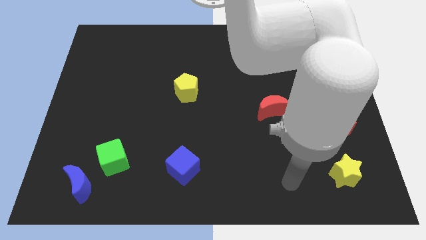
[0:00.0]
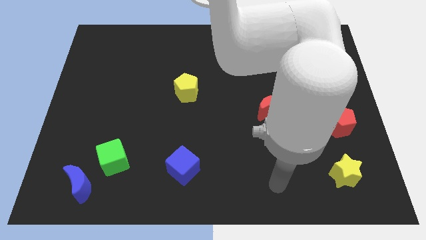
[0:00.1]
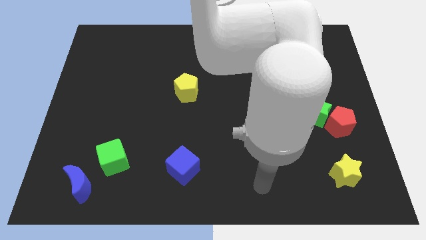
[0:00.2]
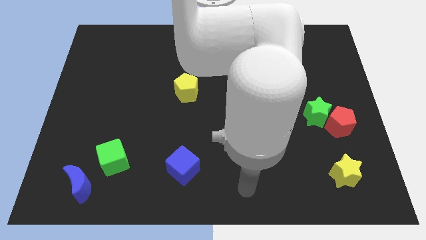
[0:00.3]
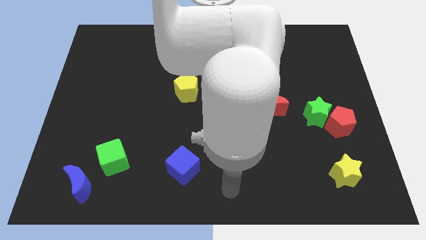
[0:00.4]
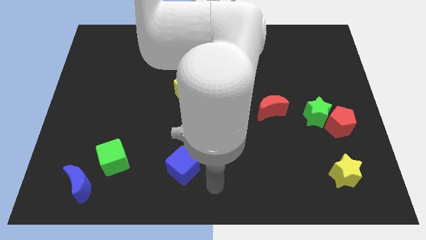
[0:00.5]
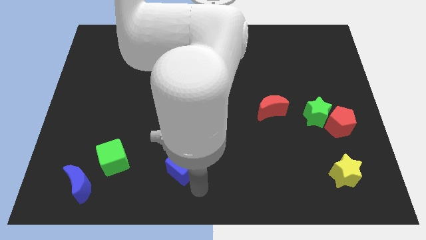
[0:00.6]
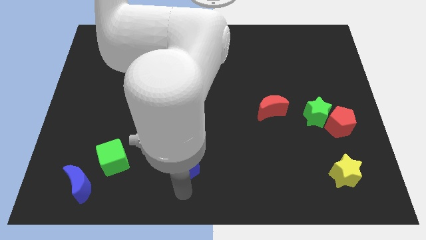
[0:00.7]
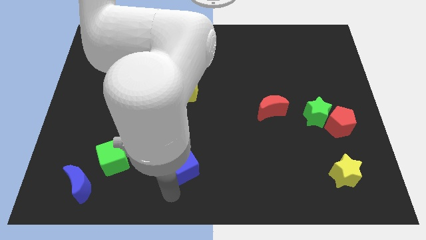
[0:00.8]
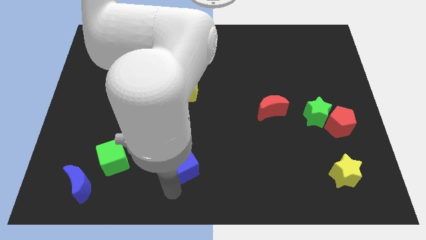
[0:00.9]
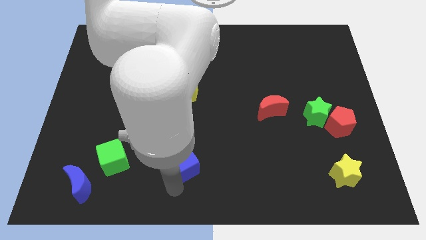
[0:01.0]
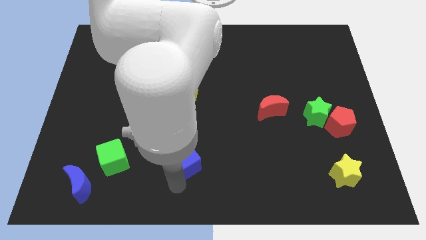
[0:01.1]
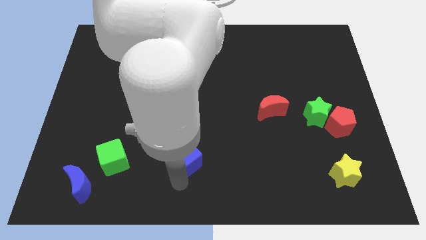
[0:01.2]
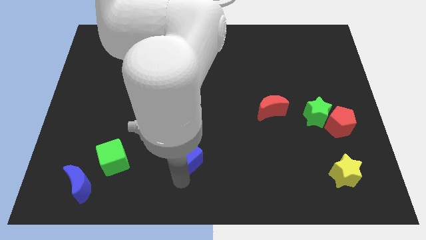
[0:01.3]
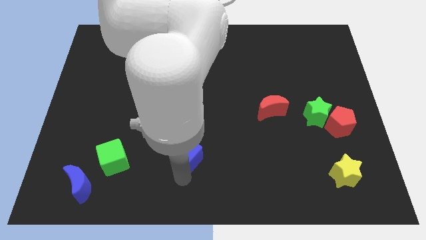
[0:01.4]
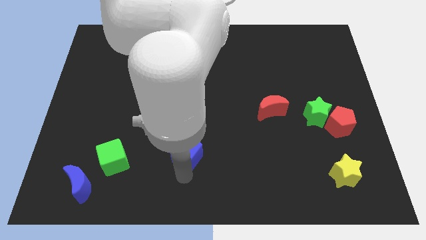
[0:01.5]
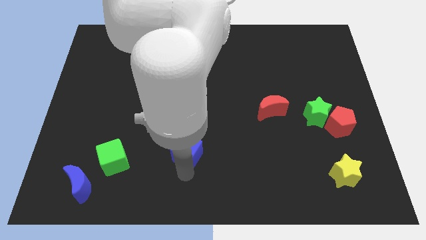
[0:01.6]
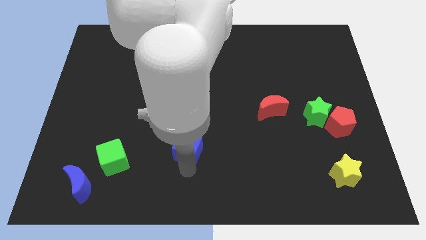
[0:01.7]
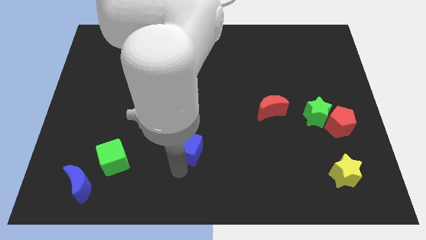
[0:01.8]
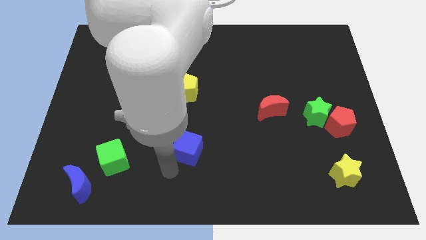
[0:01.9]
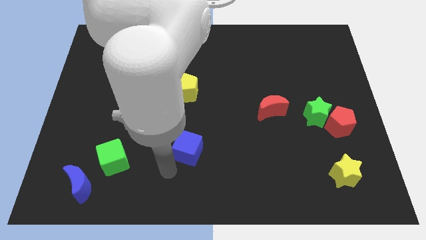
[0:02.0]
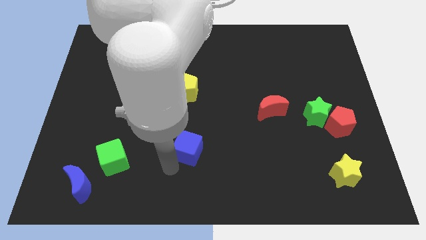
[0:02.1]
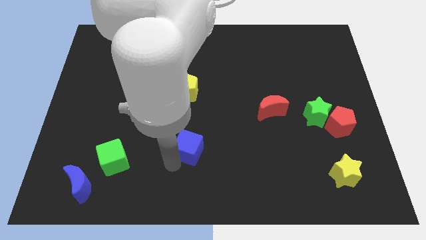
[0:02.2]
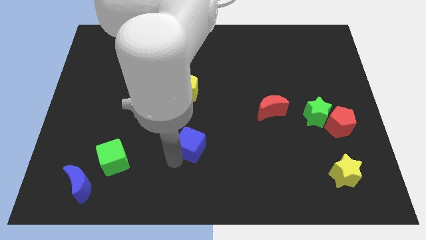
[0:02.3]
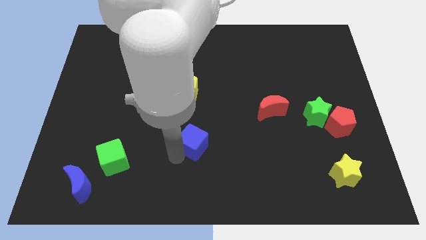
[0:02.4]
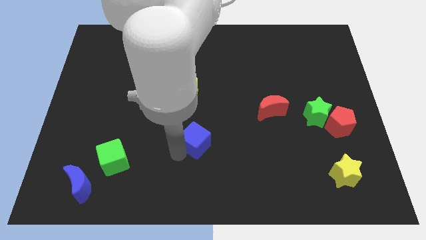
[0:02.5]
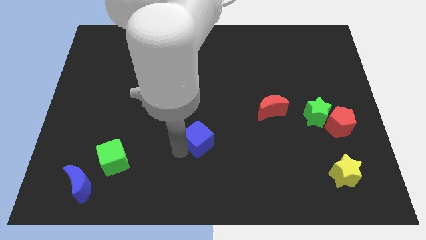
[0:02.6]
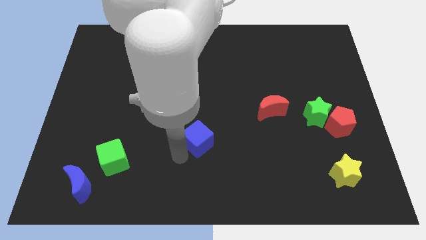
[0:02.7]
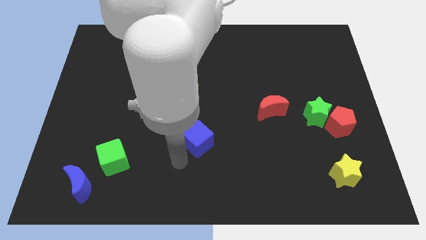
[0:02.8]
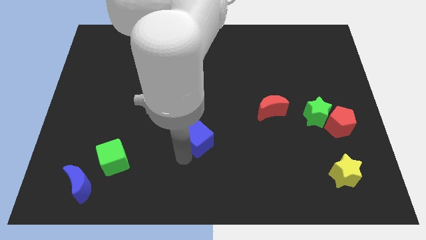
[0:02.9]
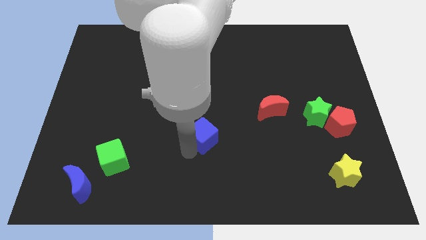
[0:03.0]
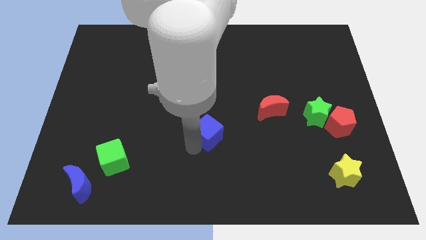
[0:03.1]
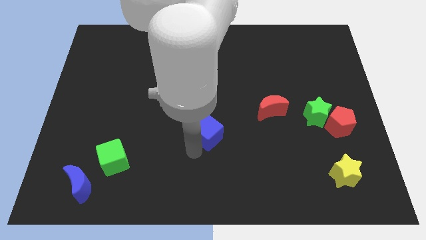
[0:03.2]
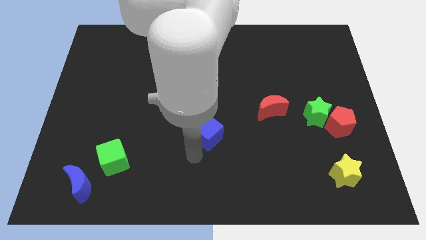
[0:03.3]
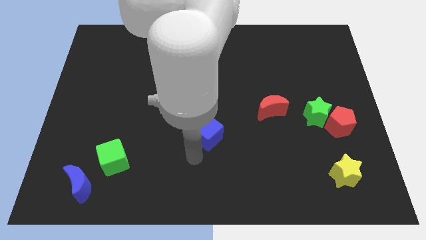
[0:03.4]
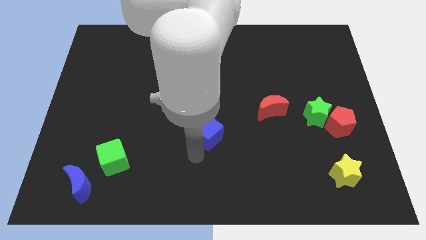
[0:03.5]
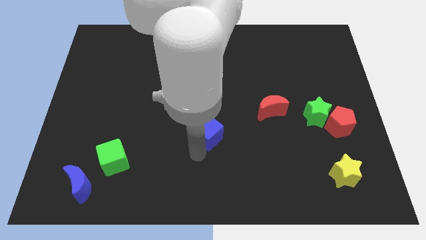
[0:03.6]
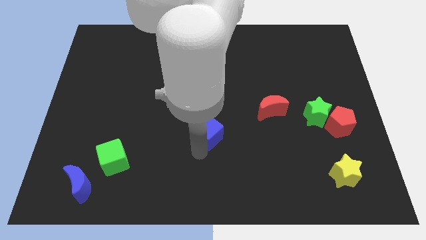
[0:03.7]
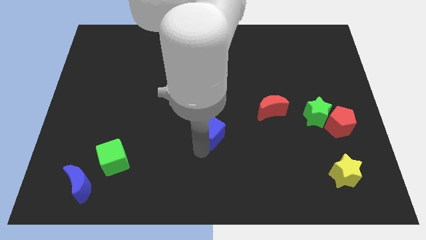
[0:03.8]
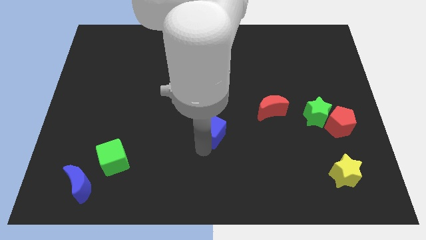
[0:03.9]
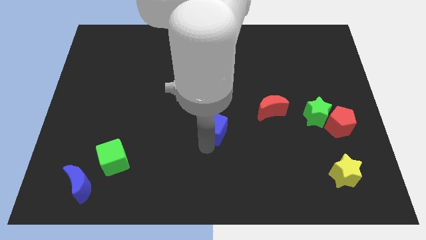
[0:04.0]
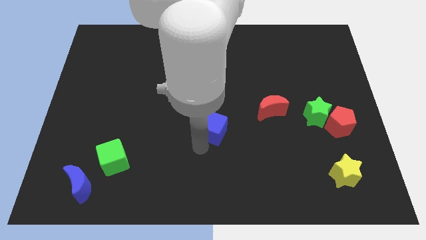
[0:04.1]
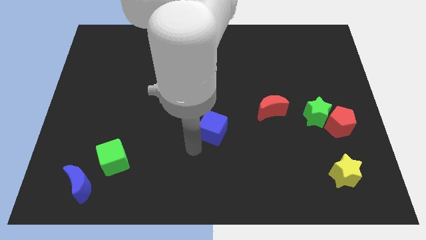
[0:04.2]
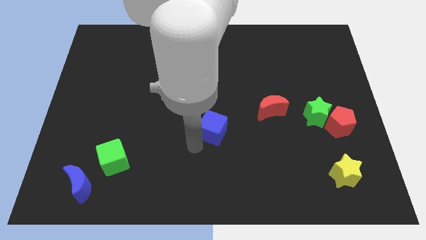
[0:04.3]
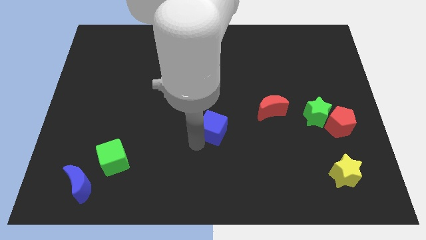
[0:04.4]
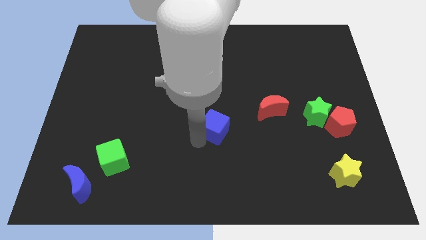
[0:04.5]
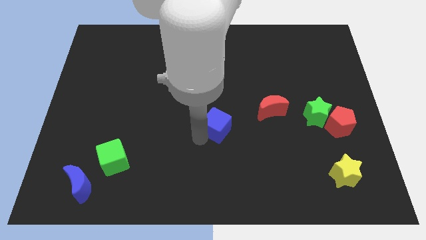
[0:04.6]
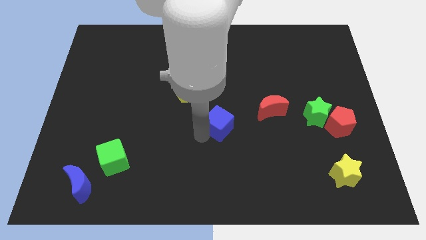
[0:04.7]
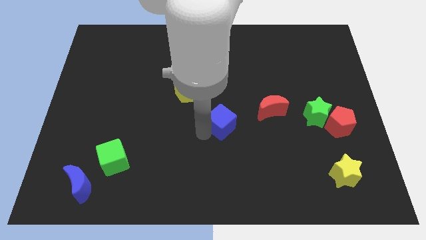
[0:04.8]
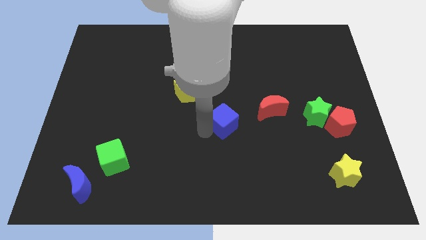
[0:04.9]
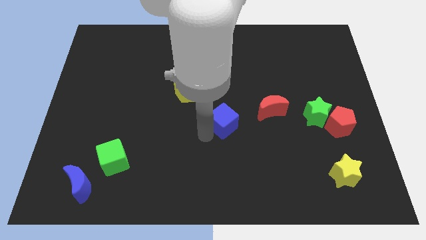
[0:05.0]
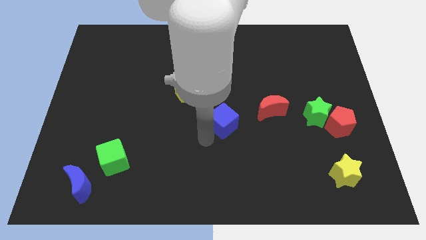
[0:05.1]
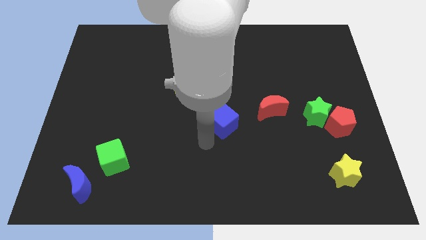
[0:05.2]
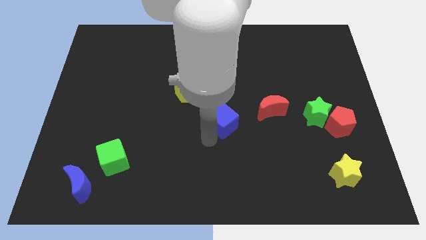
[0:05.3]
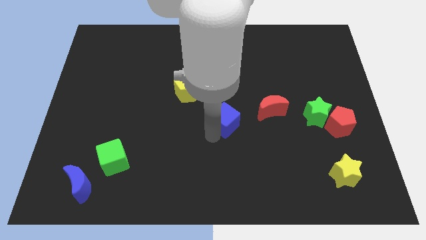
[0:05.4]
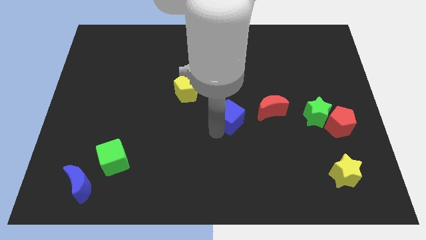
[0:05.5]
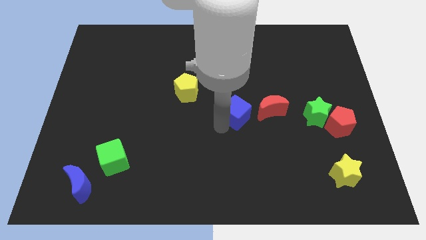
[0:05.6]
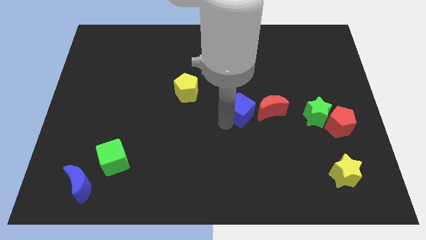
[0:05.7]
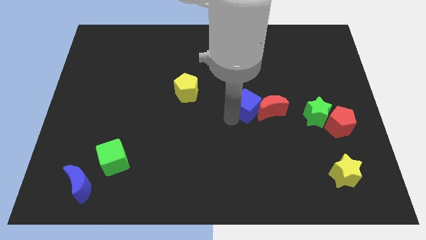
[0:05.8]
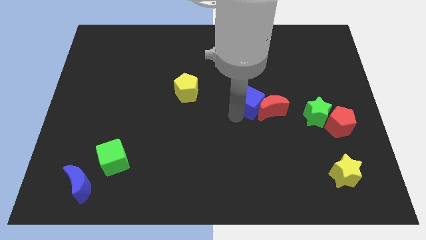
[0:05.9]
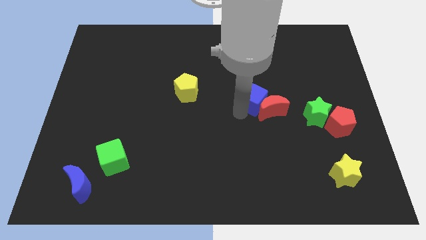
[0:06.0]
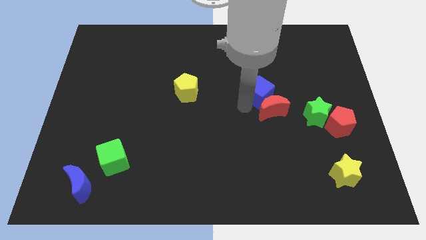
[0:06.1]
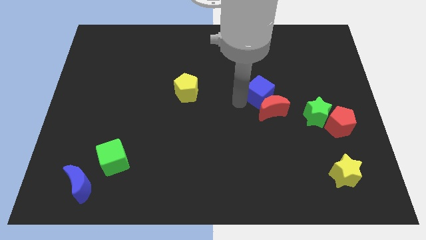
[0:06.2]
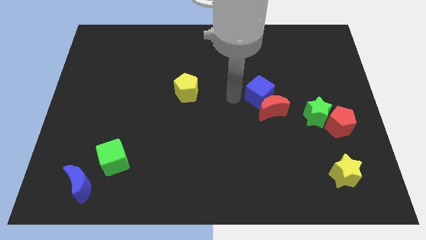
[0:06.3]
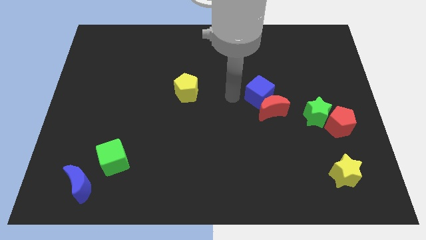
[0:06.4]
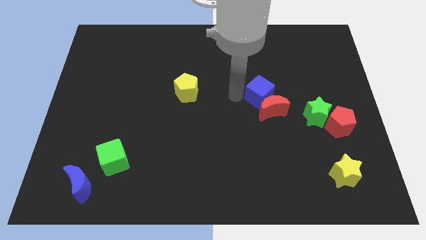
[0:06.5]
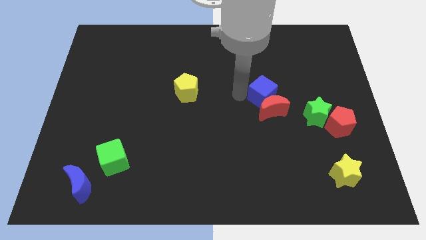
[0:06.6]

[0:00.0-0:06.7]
move the blue cube to the top right of the red moon
